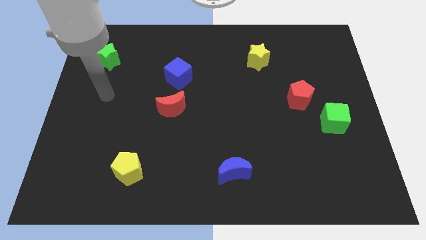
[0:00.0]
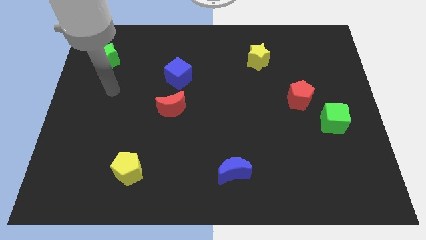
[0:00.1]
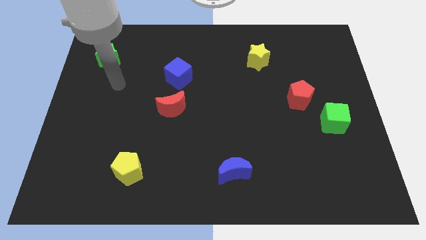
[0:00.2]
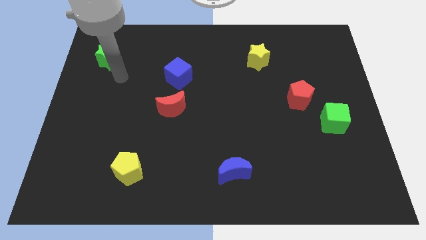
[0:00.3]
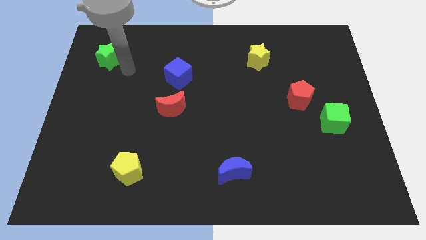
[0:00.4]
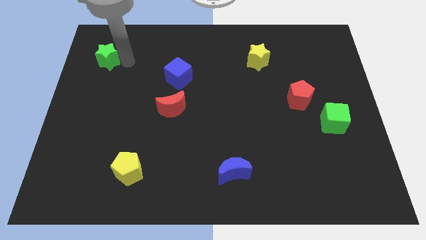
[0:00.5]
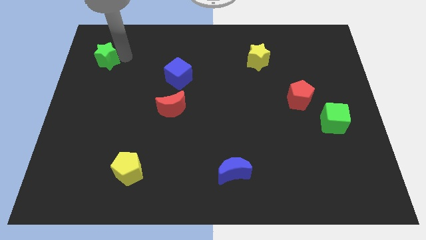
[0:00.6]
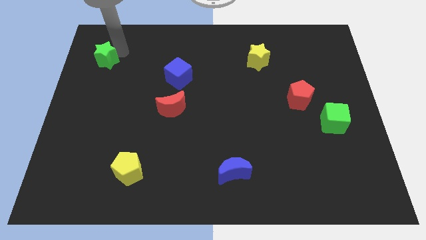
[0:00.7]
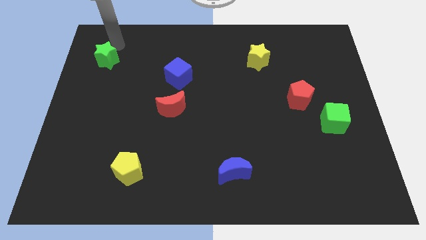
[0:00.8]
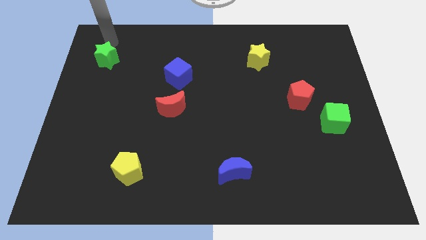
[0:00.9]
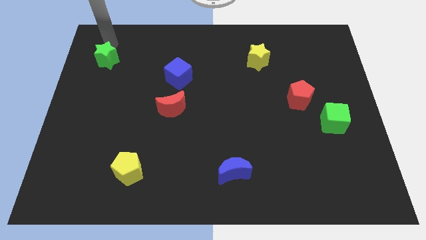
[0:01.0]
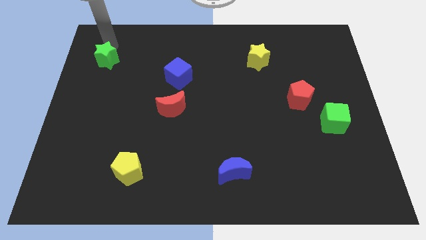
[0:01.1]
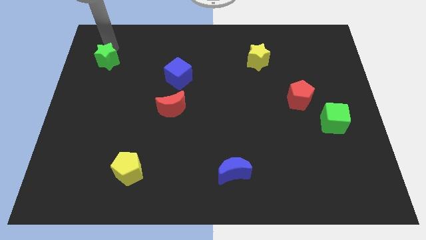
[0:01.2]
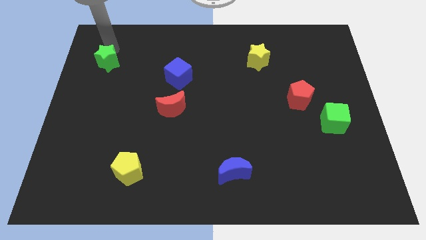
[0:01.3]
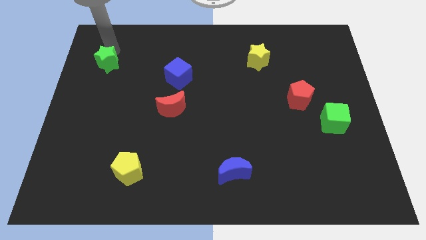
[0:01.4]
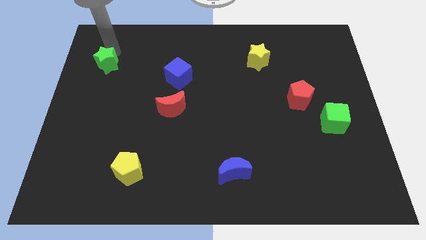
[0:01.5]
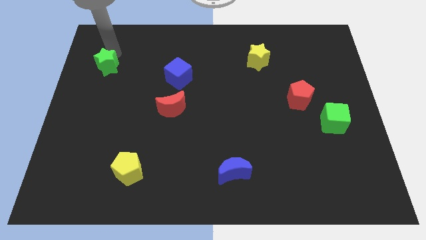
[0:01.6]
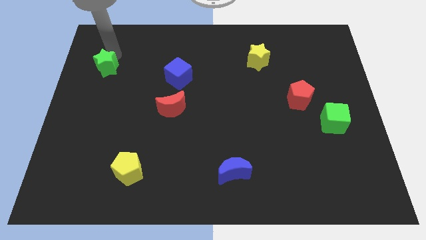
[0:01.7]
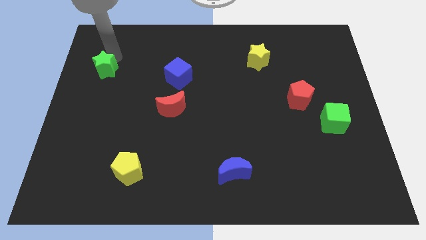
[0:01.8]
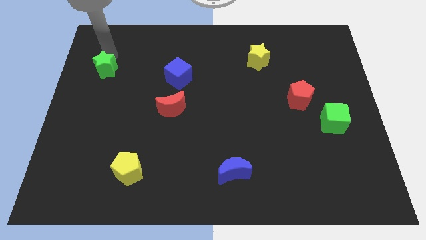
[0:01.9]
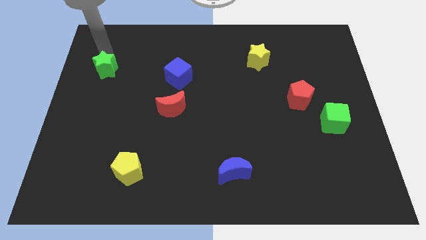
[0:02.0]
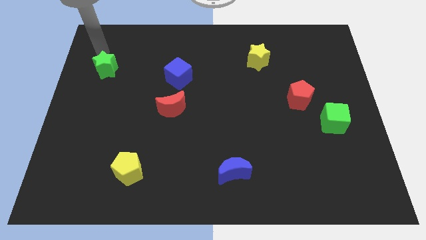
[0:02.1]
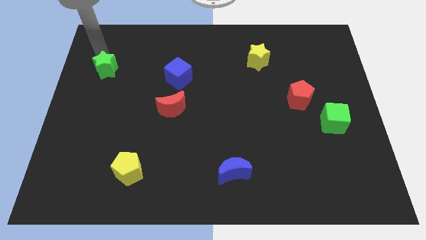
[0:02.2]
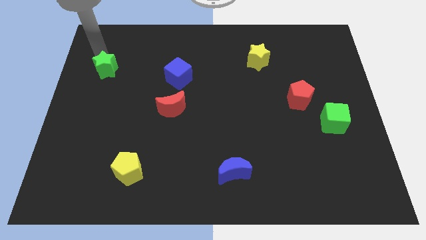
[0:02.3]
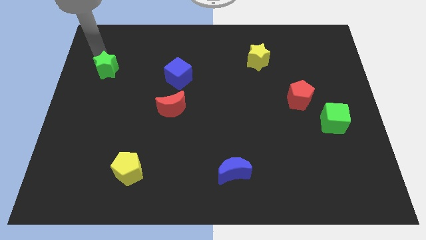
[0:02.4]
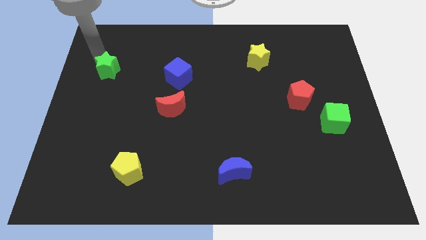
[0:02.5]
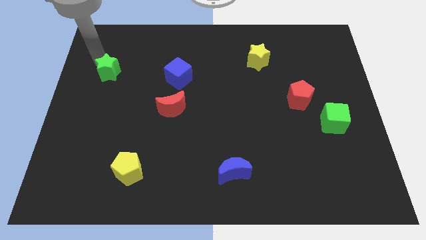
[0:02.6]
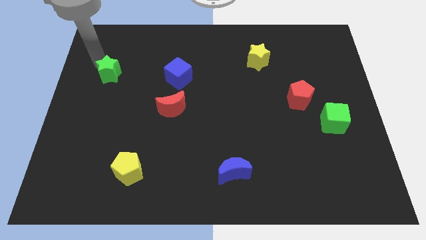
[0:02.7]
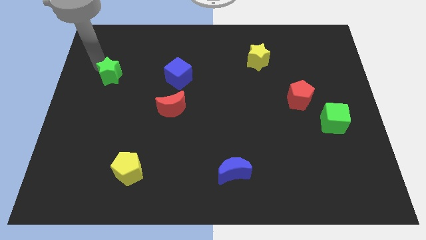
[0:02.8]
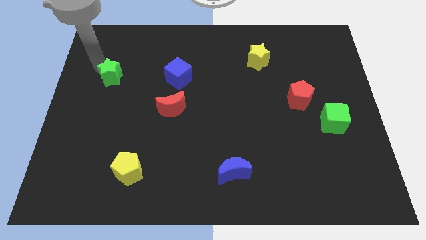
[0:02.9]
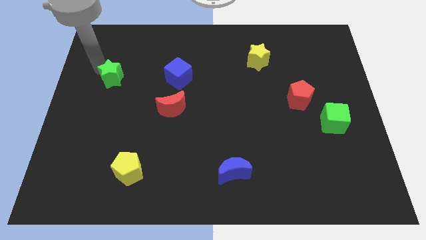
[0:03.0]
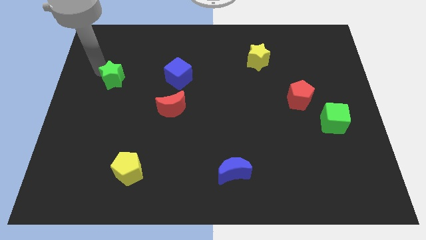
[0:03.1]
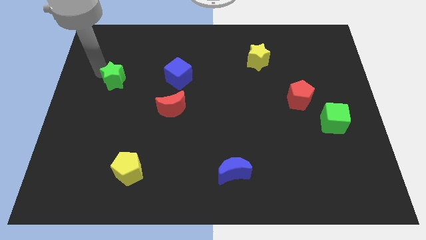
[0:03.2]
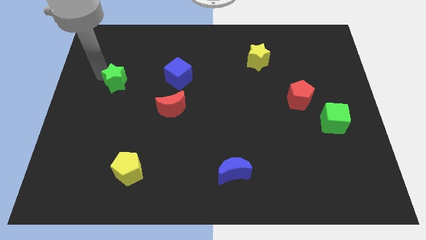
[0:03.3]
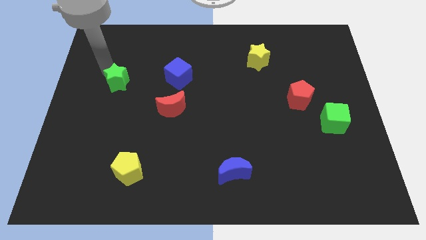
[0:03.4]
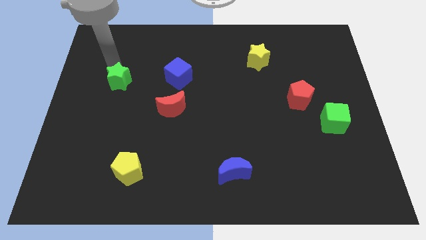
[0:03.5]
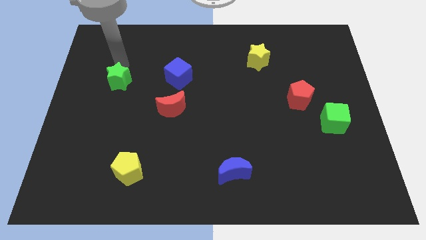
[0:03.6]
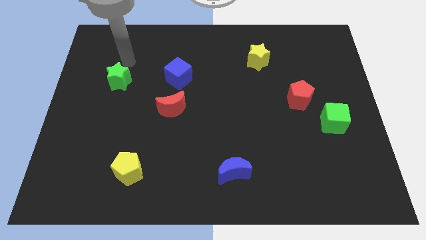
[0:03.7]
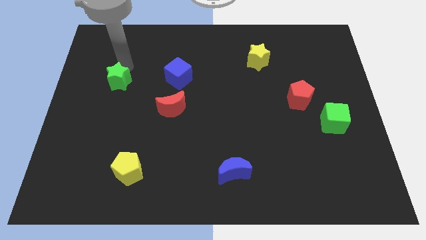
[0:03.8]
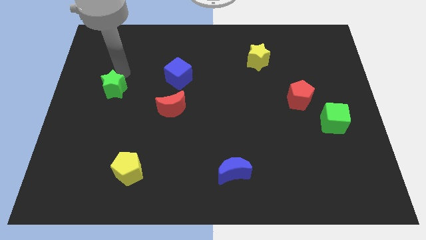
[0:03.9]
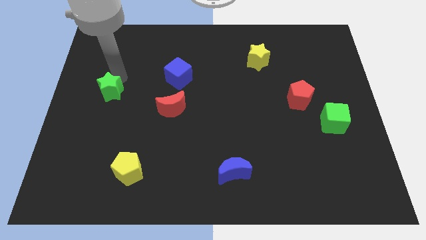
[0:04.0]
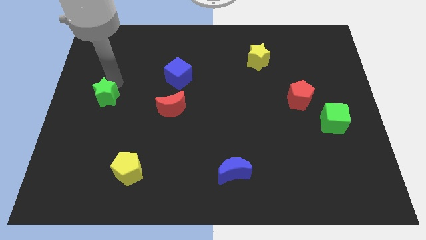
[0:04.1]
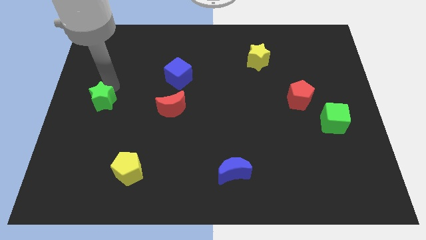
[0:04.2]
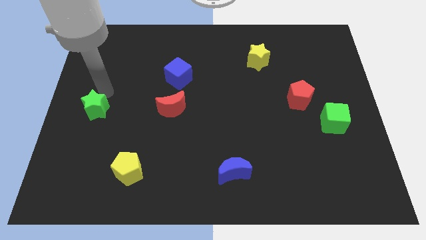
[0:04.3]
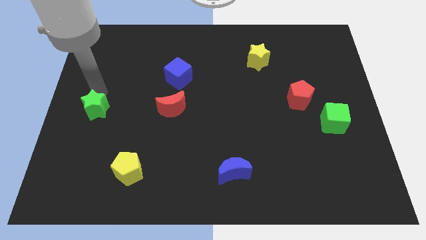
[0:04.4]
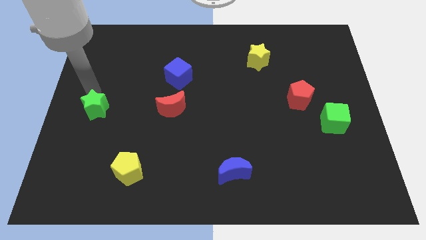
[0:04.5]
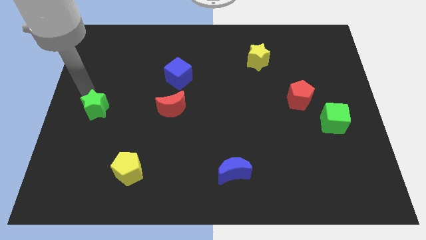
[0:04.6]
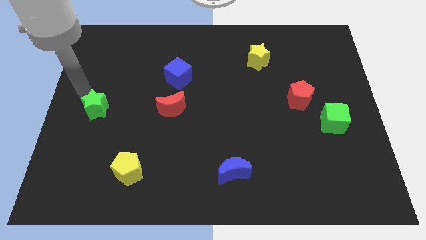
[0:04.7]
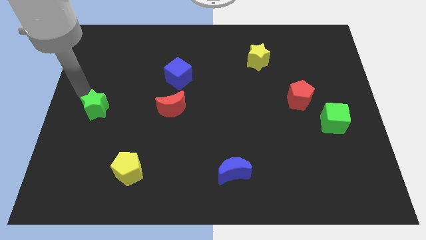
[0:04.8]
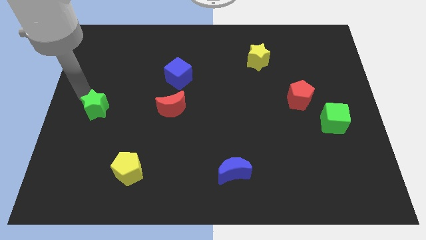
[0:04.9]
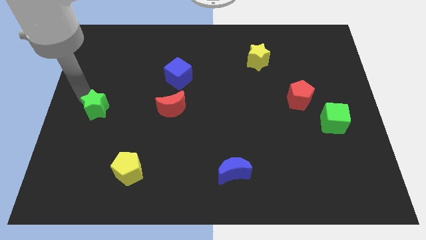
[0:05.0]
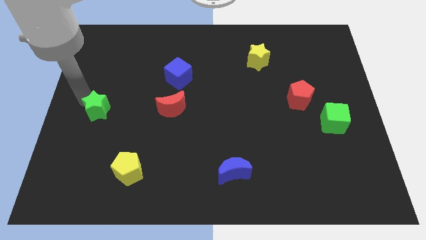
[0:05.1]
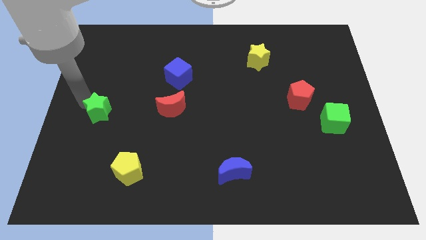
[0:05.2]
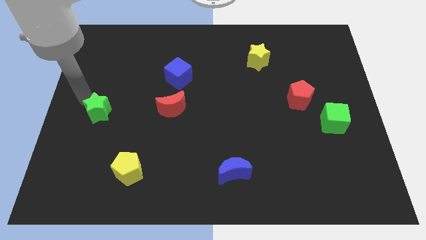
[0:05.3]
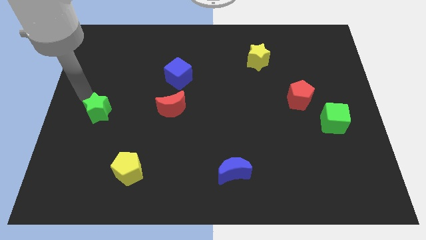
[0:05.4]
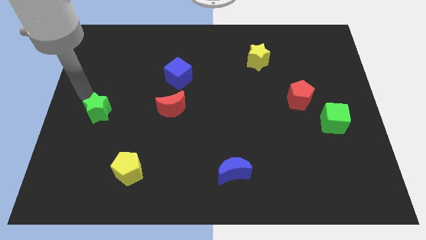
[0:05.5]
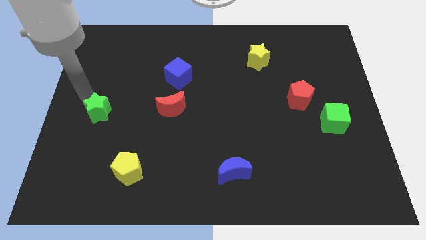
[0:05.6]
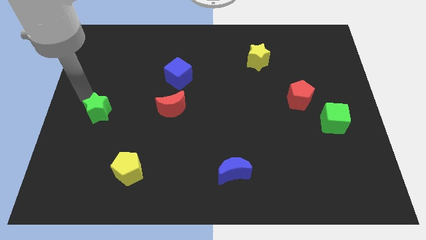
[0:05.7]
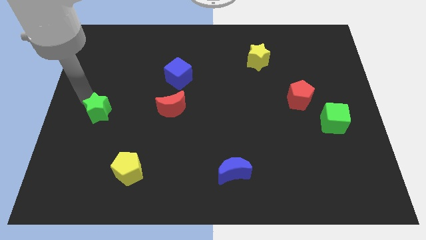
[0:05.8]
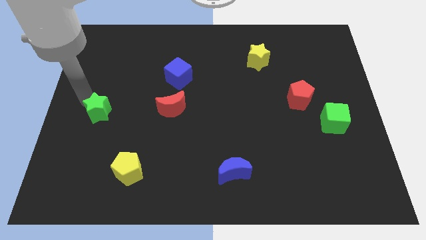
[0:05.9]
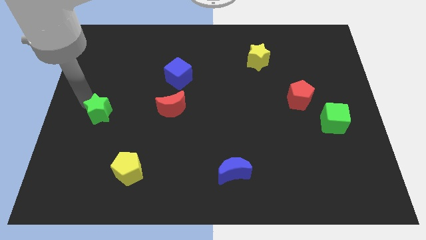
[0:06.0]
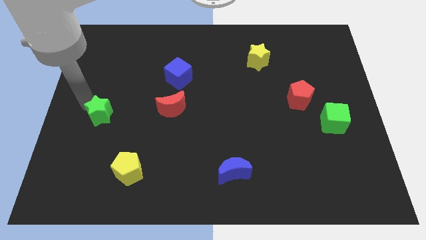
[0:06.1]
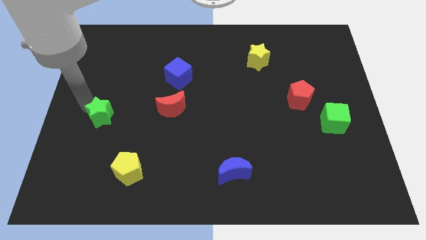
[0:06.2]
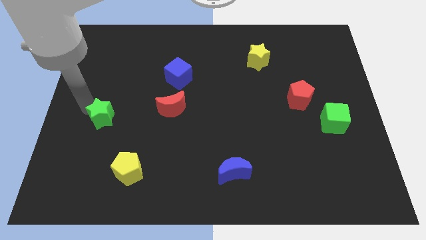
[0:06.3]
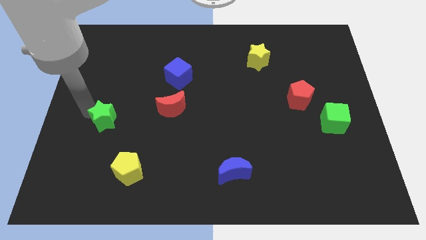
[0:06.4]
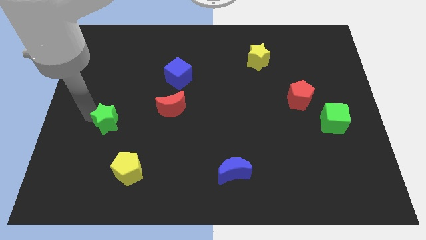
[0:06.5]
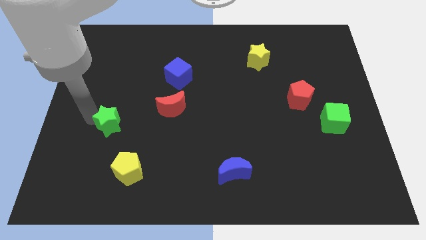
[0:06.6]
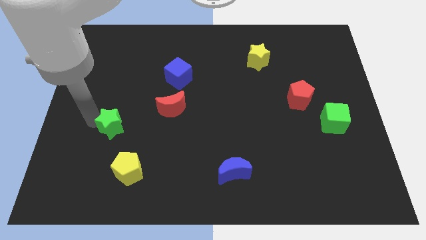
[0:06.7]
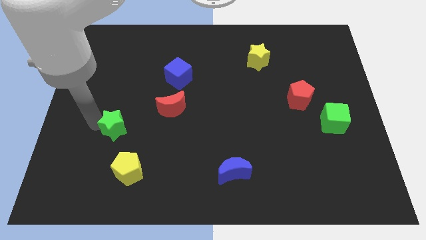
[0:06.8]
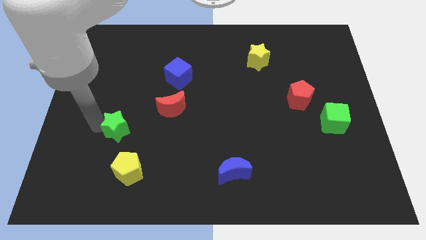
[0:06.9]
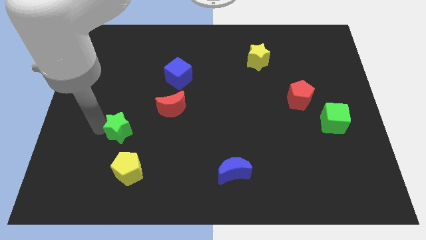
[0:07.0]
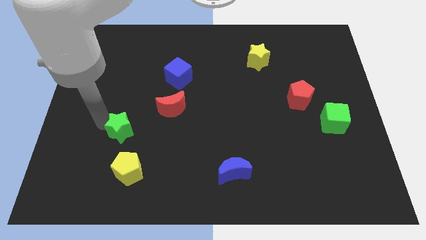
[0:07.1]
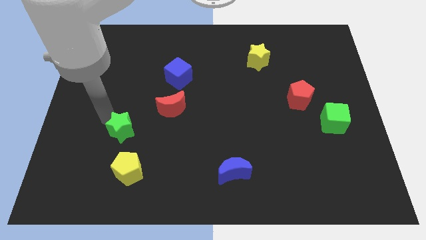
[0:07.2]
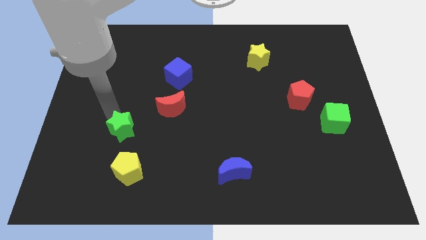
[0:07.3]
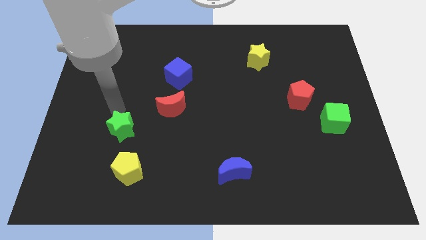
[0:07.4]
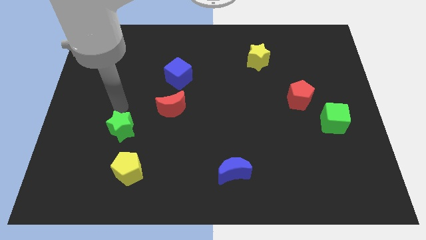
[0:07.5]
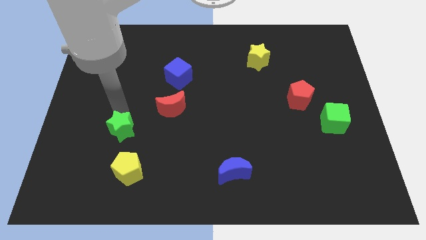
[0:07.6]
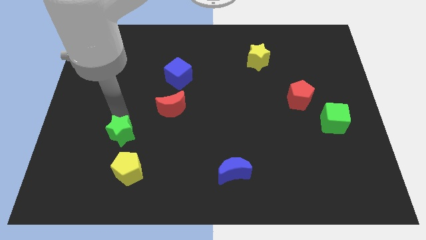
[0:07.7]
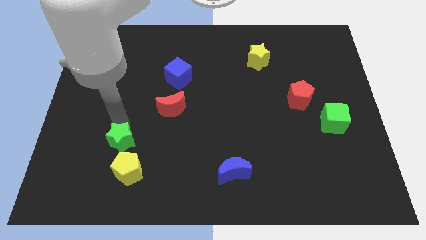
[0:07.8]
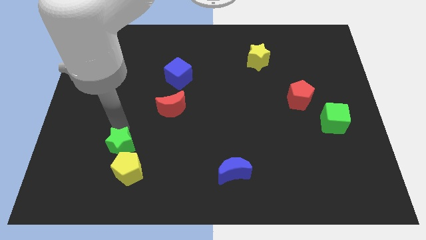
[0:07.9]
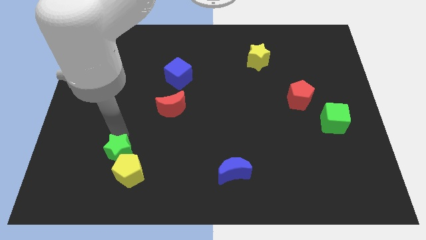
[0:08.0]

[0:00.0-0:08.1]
put the green star close to the yellow pentagon
